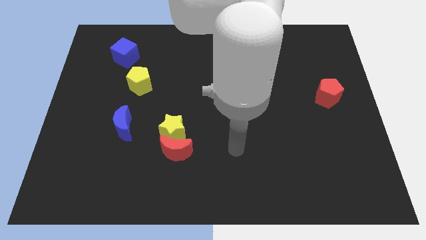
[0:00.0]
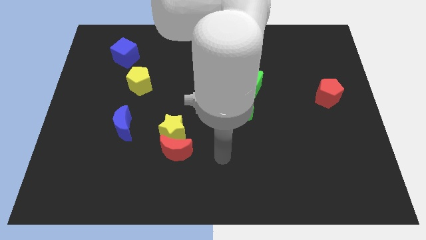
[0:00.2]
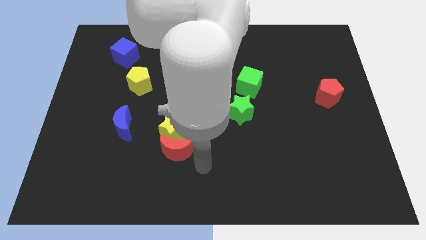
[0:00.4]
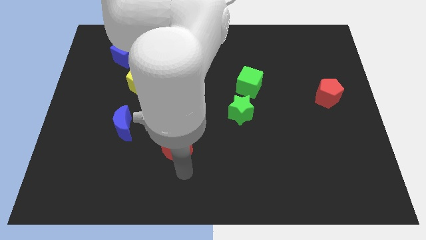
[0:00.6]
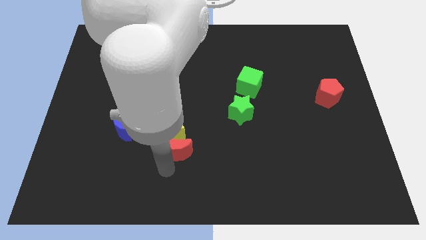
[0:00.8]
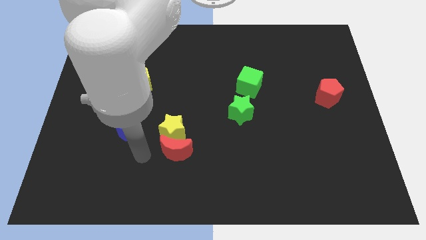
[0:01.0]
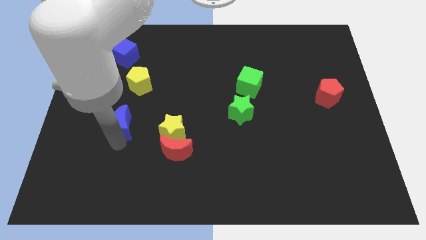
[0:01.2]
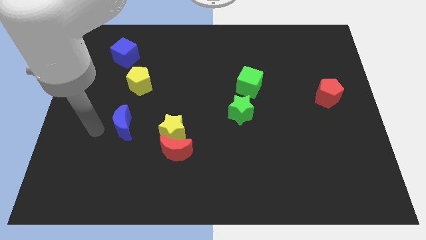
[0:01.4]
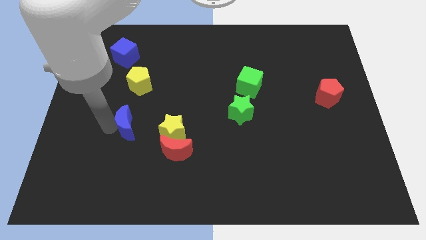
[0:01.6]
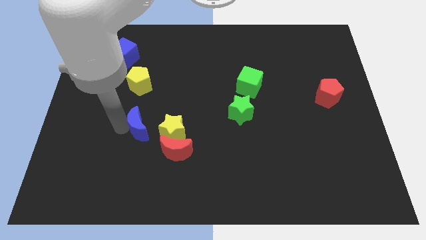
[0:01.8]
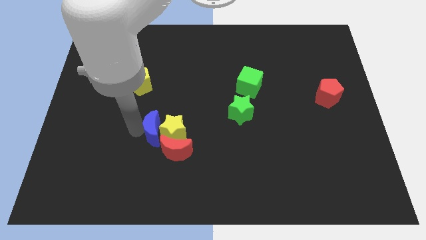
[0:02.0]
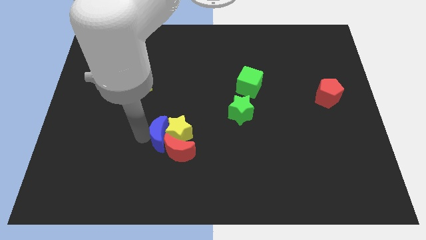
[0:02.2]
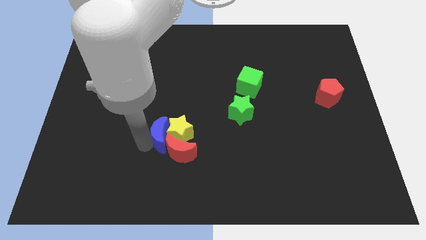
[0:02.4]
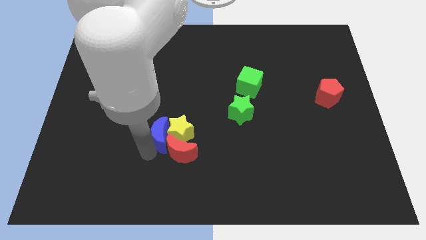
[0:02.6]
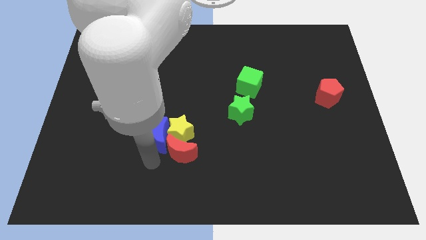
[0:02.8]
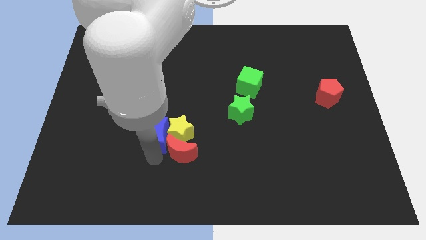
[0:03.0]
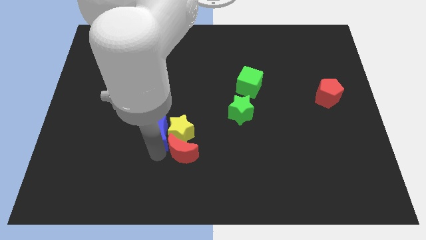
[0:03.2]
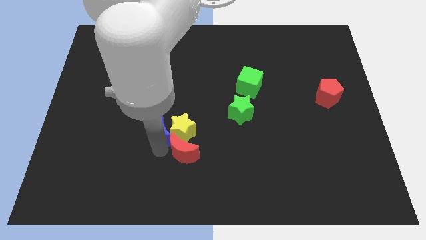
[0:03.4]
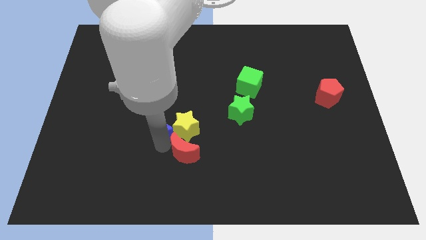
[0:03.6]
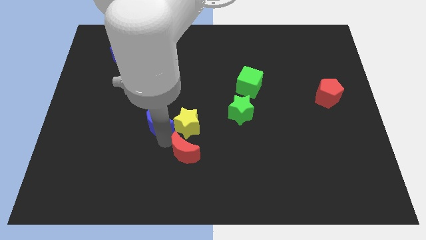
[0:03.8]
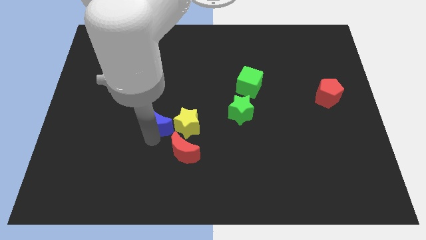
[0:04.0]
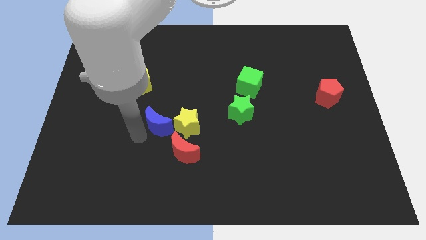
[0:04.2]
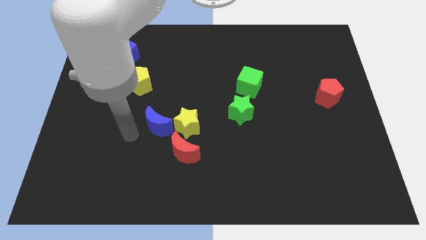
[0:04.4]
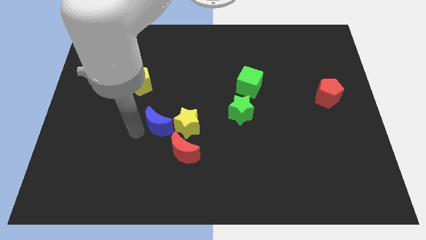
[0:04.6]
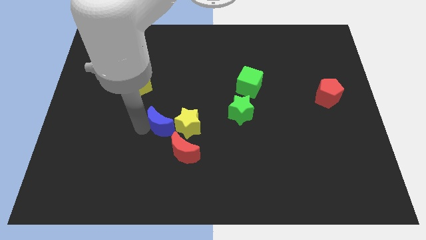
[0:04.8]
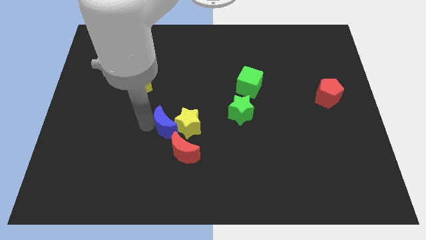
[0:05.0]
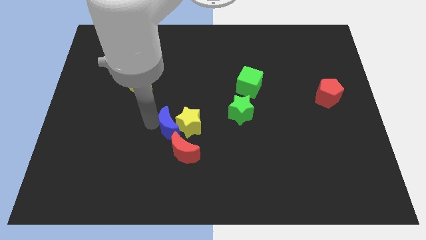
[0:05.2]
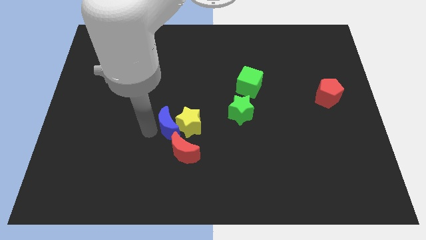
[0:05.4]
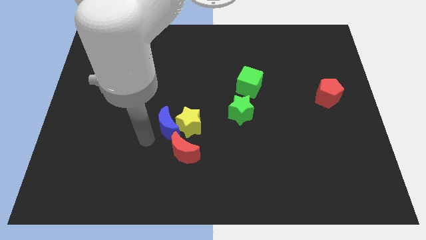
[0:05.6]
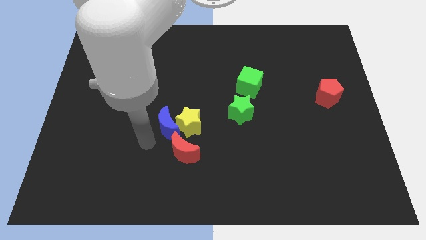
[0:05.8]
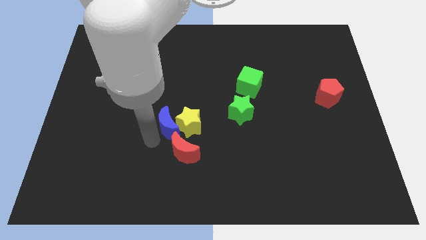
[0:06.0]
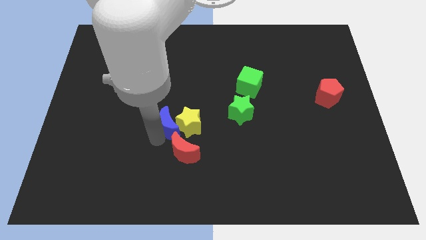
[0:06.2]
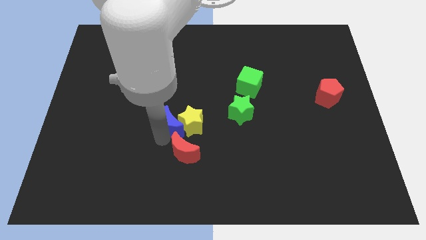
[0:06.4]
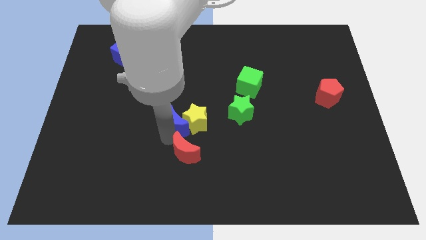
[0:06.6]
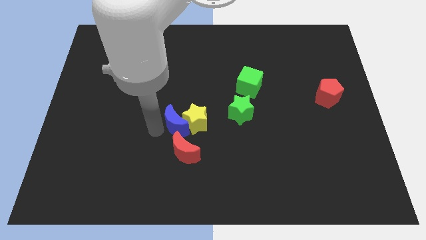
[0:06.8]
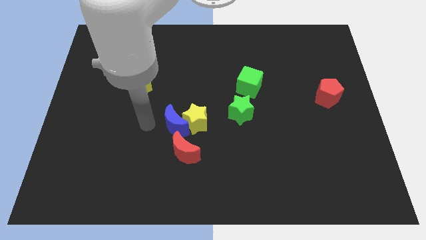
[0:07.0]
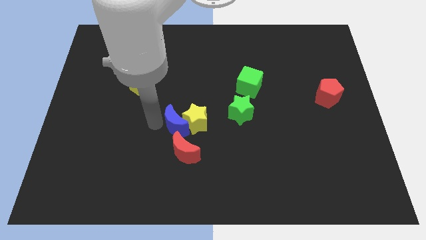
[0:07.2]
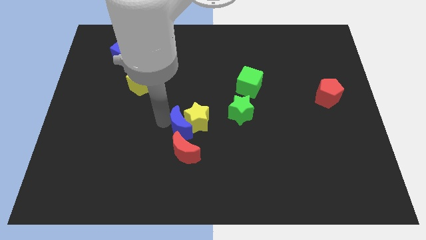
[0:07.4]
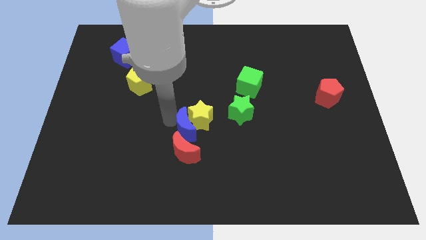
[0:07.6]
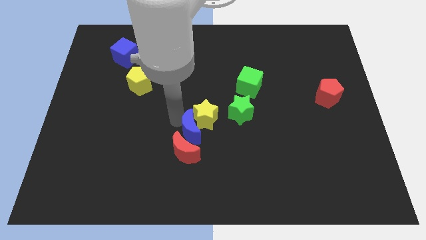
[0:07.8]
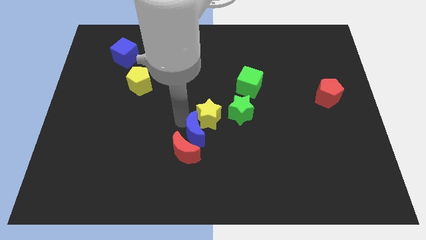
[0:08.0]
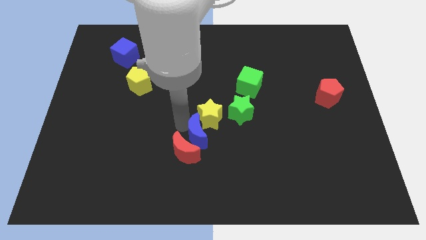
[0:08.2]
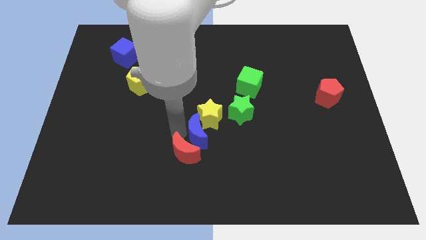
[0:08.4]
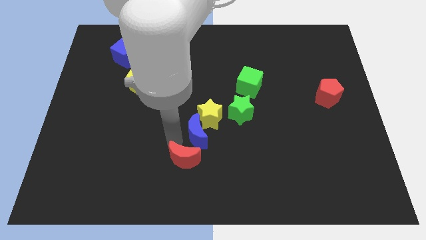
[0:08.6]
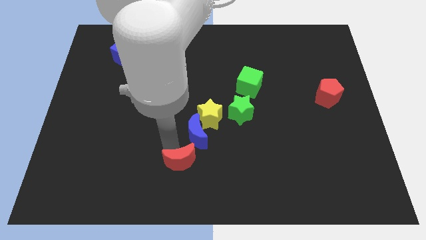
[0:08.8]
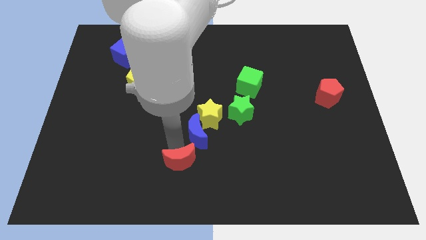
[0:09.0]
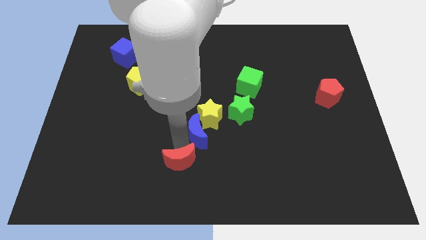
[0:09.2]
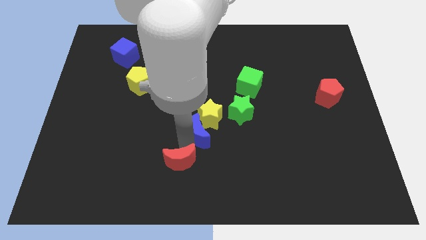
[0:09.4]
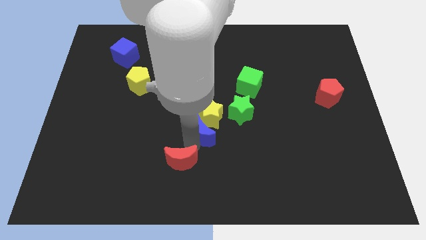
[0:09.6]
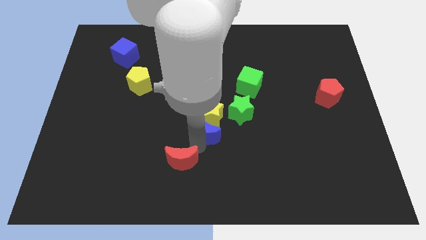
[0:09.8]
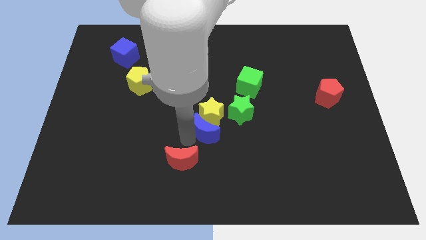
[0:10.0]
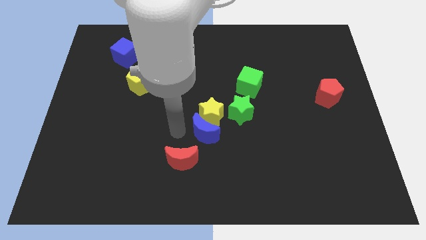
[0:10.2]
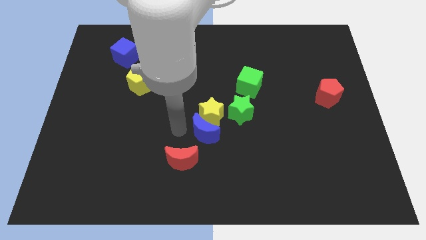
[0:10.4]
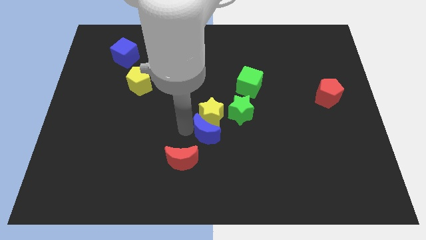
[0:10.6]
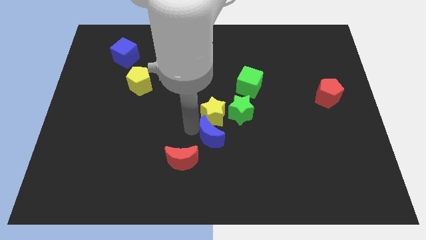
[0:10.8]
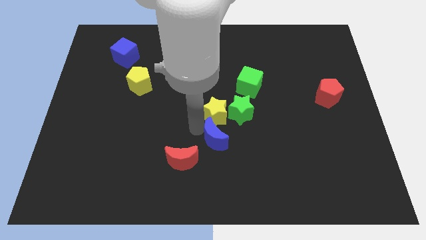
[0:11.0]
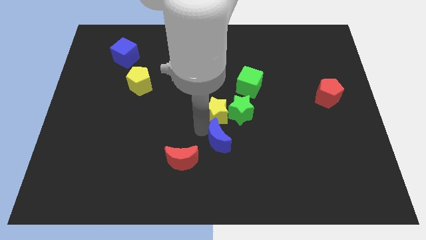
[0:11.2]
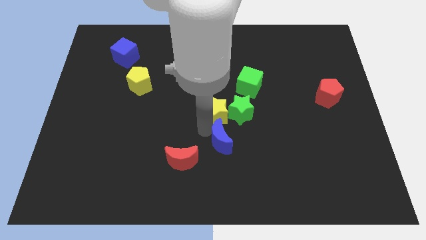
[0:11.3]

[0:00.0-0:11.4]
move the blue moon to the bottom of the green star

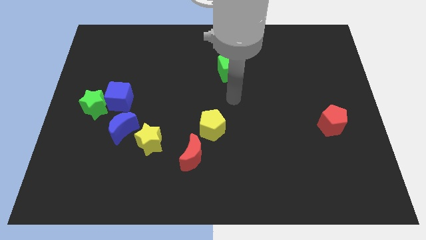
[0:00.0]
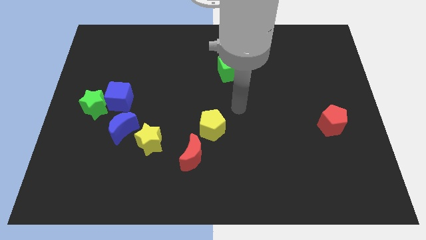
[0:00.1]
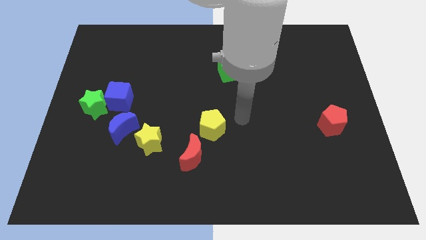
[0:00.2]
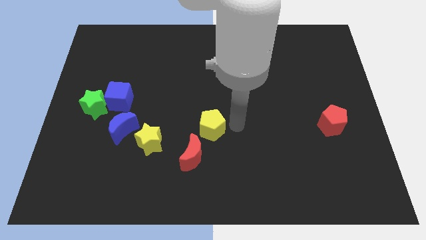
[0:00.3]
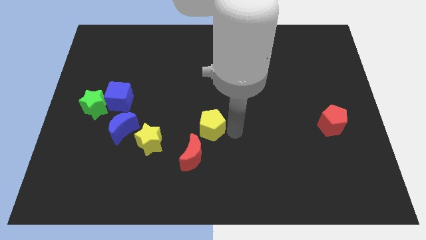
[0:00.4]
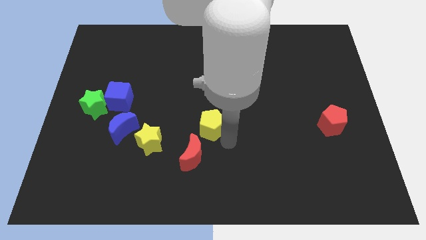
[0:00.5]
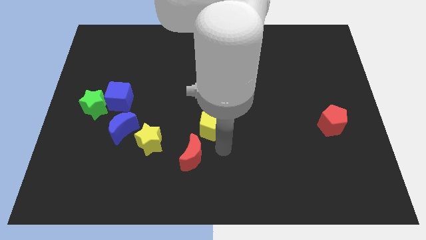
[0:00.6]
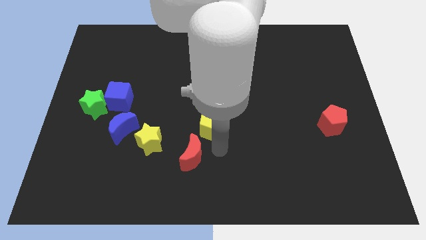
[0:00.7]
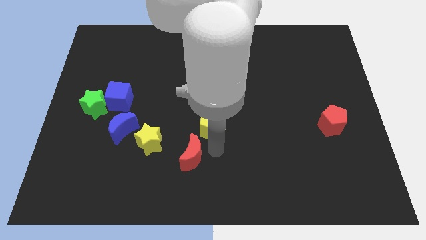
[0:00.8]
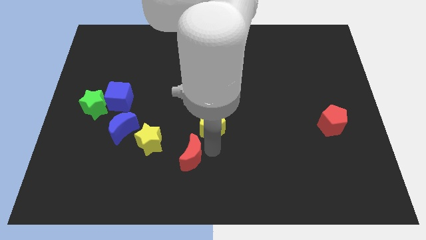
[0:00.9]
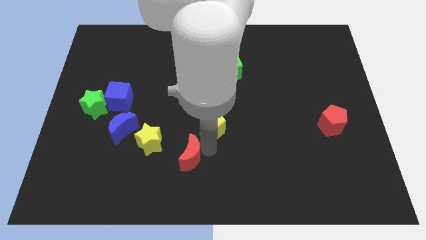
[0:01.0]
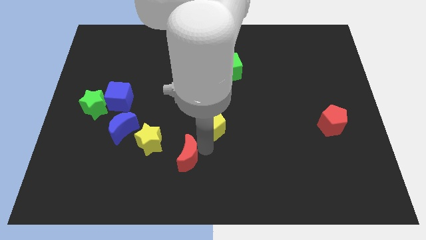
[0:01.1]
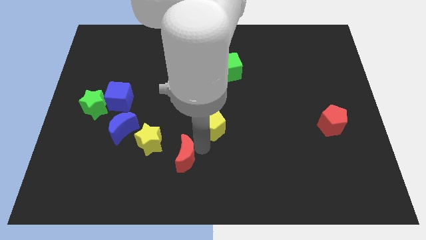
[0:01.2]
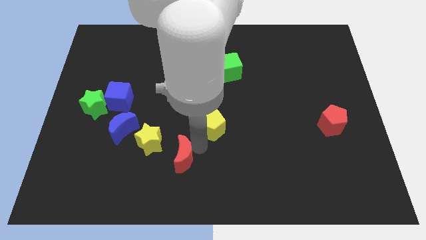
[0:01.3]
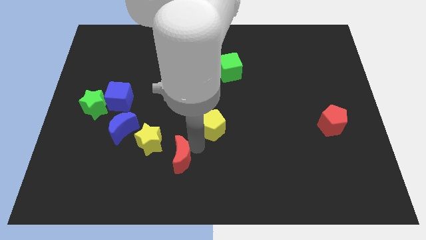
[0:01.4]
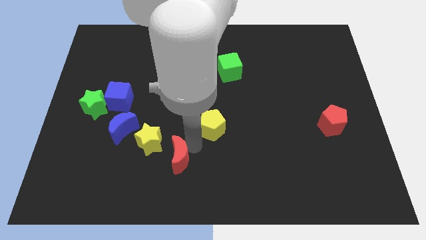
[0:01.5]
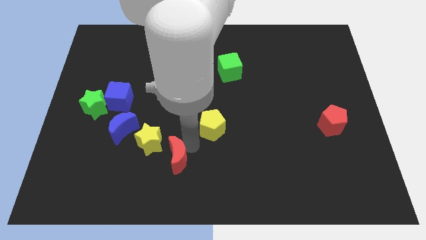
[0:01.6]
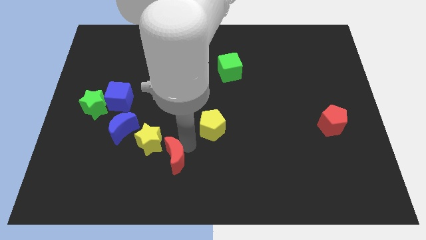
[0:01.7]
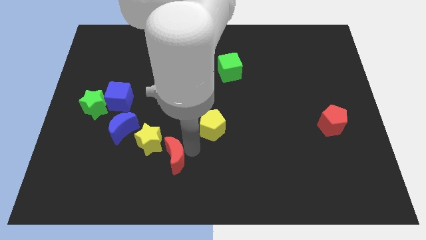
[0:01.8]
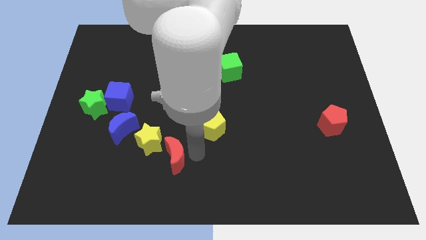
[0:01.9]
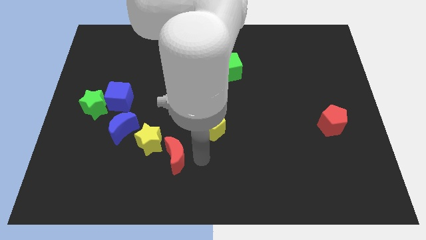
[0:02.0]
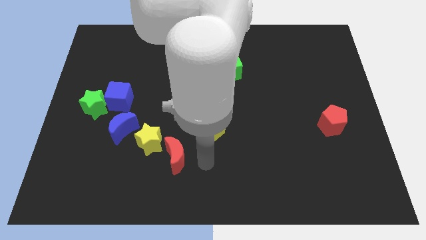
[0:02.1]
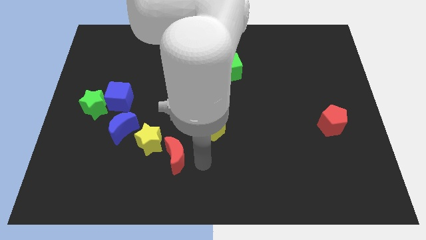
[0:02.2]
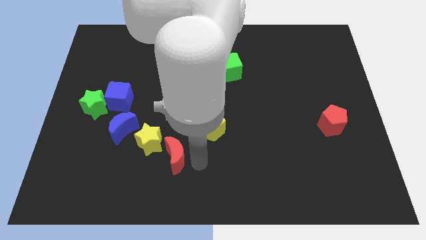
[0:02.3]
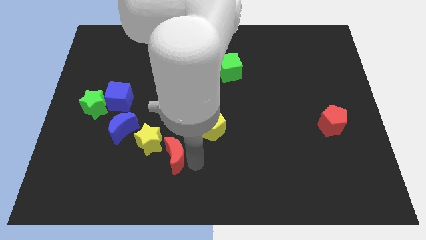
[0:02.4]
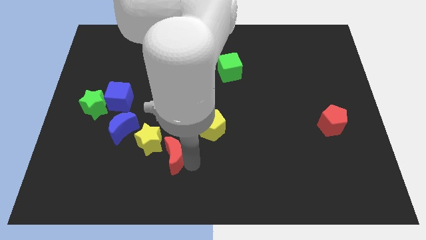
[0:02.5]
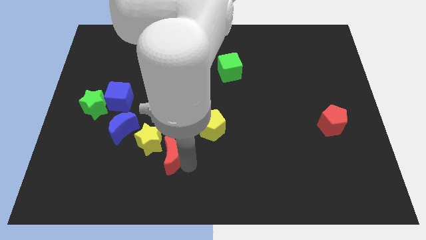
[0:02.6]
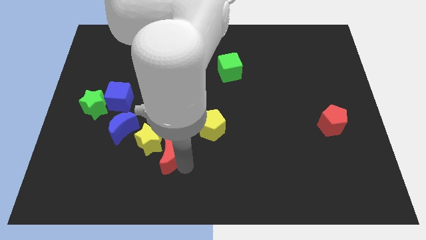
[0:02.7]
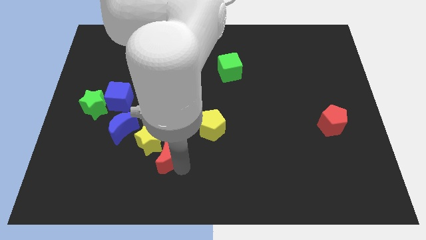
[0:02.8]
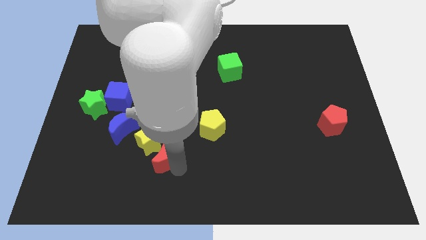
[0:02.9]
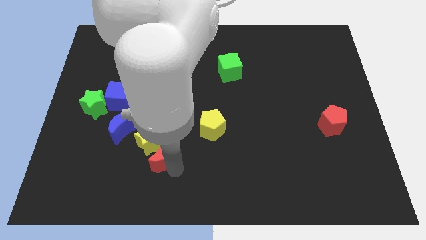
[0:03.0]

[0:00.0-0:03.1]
move the red moon to the bottom right side of the blue moon
